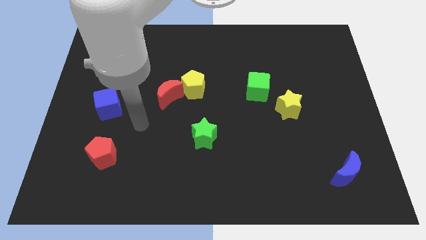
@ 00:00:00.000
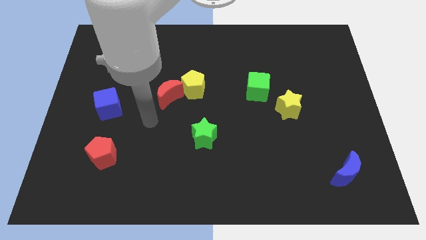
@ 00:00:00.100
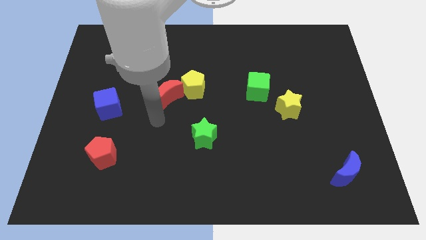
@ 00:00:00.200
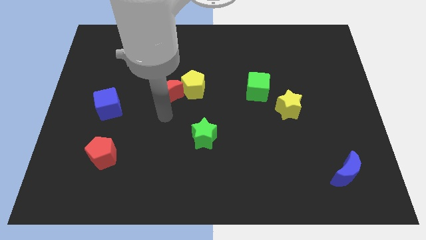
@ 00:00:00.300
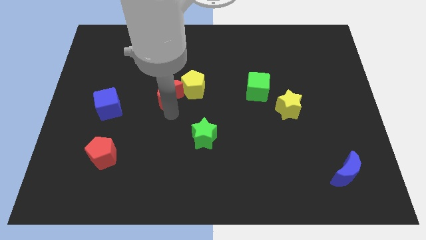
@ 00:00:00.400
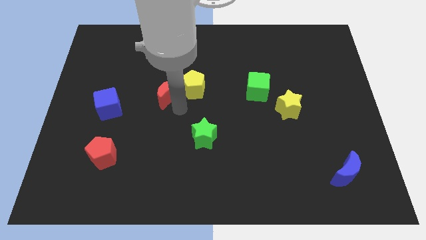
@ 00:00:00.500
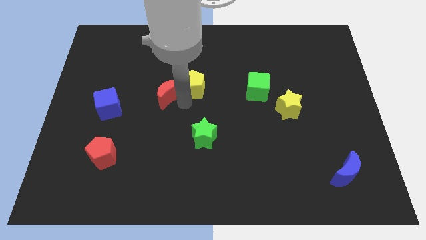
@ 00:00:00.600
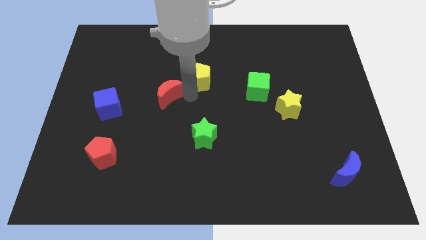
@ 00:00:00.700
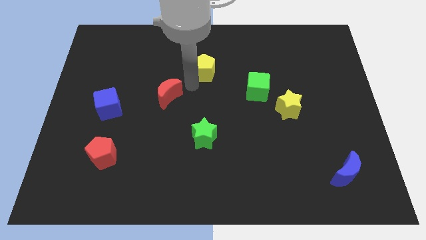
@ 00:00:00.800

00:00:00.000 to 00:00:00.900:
pull the red moon apart from the yellow pentagon

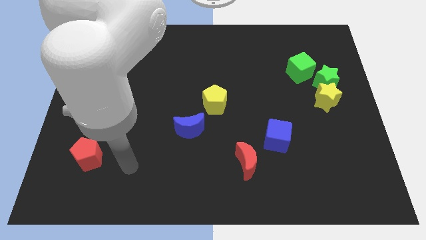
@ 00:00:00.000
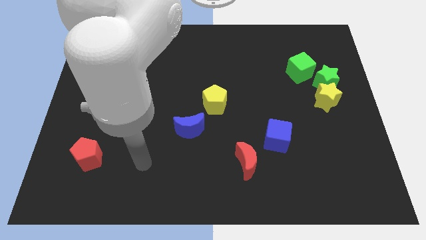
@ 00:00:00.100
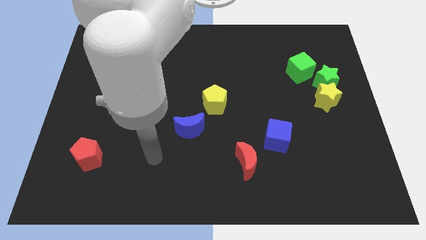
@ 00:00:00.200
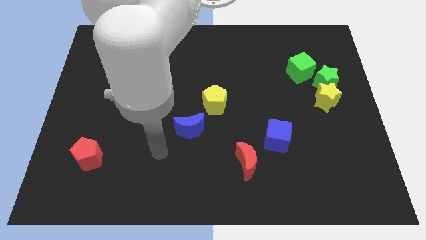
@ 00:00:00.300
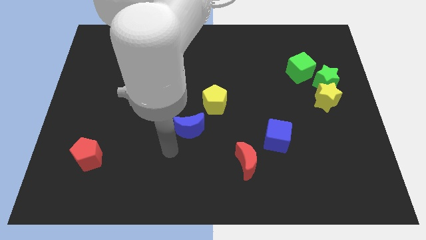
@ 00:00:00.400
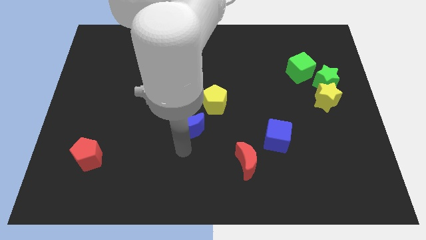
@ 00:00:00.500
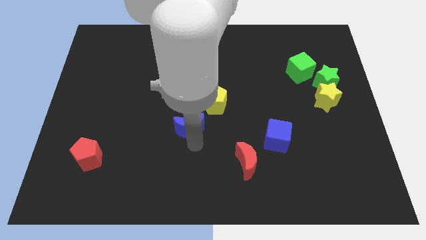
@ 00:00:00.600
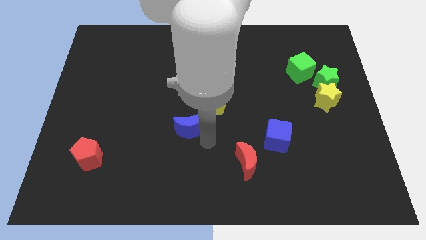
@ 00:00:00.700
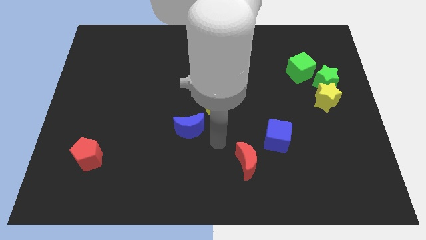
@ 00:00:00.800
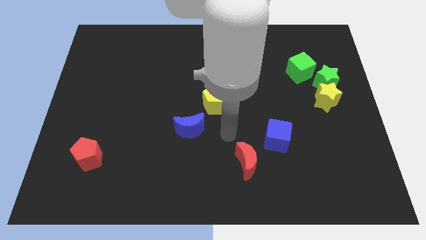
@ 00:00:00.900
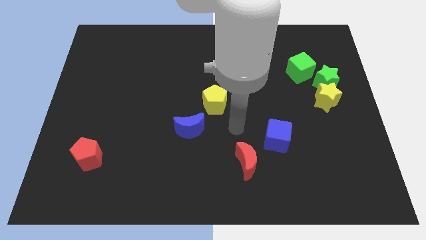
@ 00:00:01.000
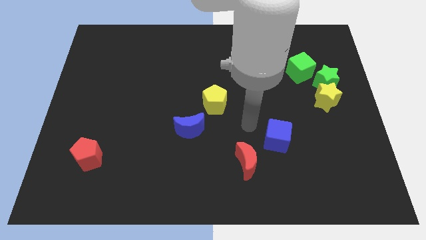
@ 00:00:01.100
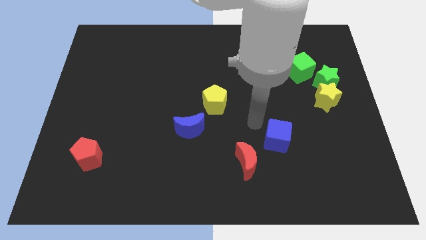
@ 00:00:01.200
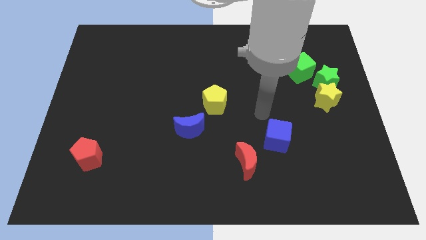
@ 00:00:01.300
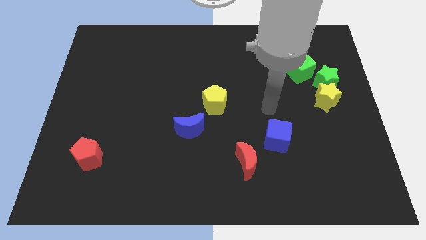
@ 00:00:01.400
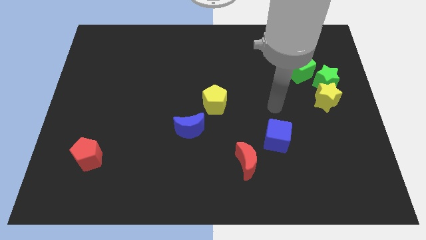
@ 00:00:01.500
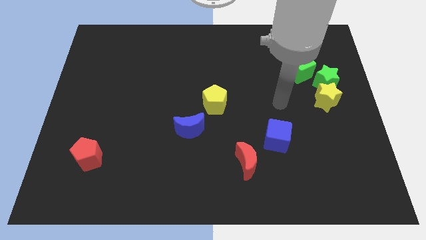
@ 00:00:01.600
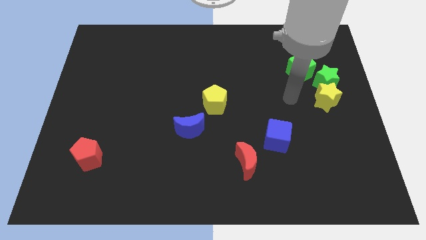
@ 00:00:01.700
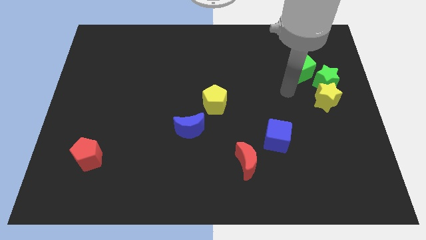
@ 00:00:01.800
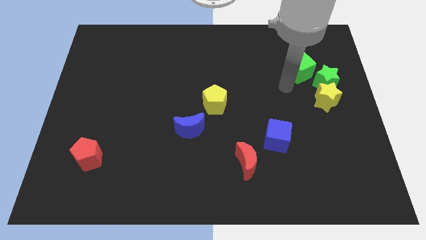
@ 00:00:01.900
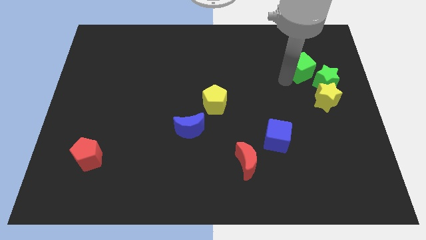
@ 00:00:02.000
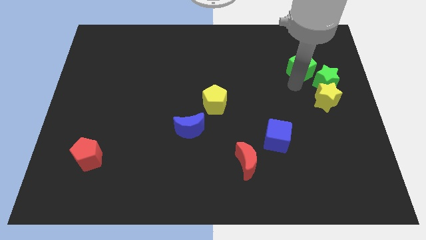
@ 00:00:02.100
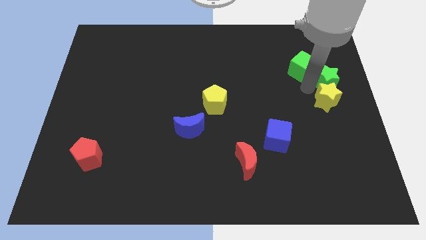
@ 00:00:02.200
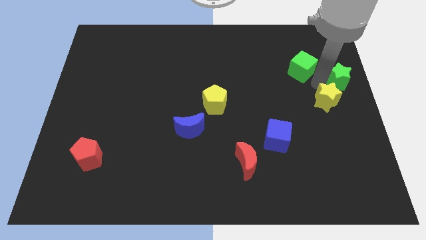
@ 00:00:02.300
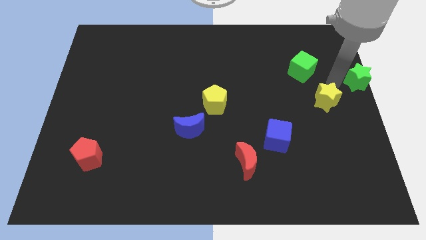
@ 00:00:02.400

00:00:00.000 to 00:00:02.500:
move the yellow star away from the green star

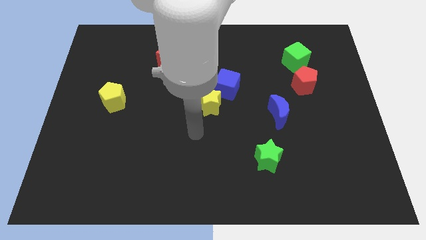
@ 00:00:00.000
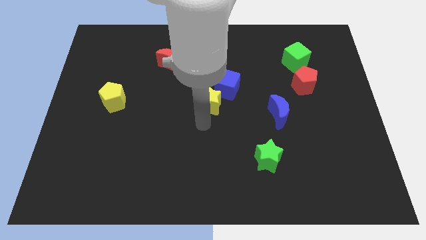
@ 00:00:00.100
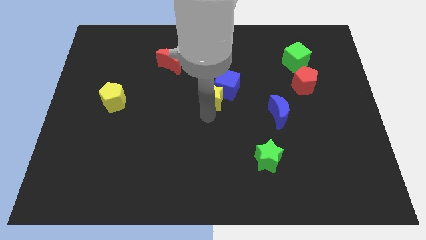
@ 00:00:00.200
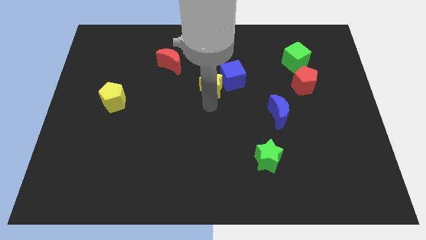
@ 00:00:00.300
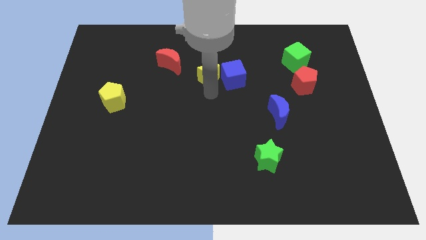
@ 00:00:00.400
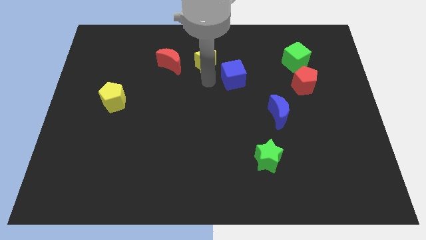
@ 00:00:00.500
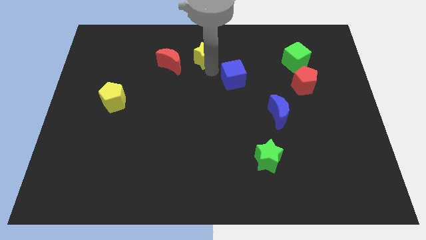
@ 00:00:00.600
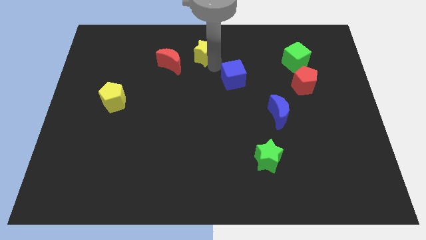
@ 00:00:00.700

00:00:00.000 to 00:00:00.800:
separate the blue cube from the yellow star

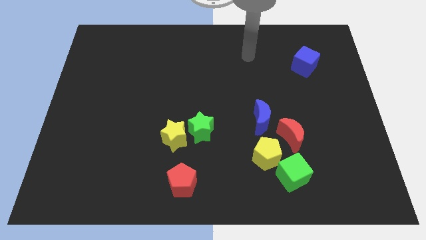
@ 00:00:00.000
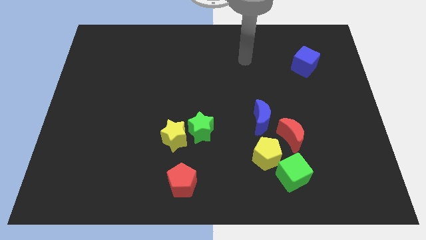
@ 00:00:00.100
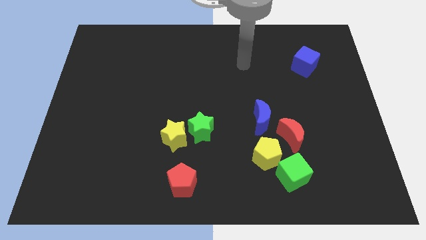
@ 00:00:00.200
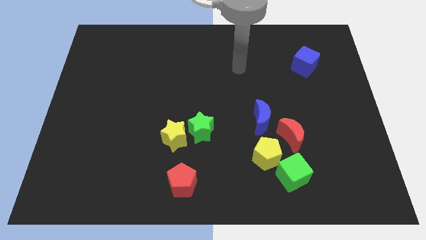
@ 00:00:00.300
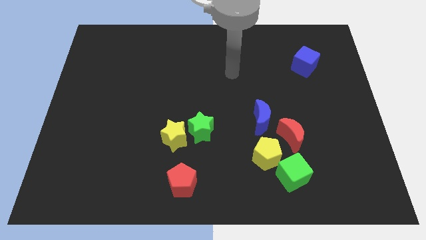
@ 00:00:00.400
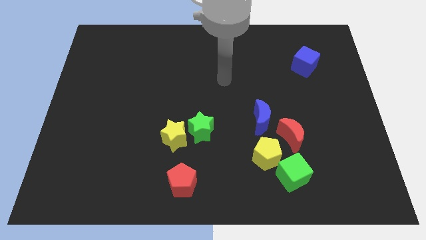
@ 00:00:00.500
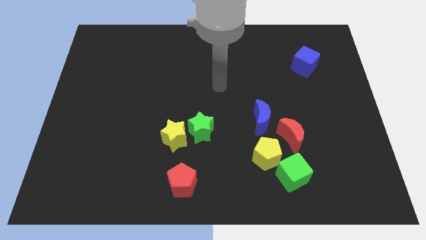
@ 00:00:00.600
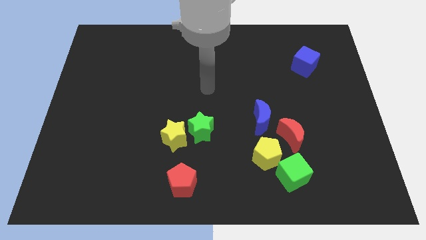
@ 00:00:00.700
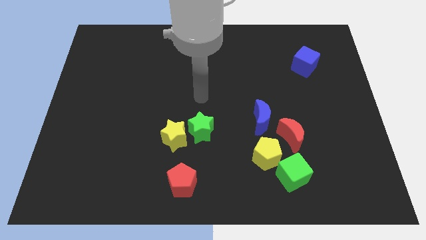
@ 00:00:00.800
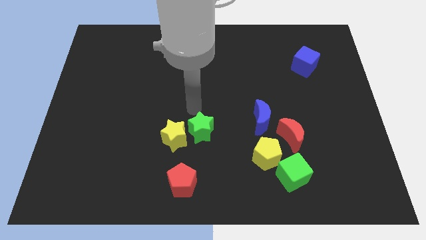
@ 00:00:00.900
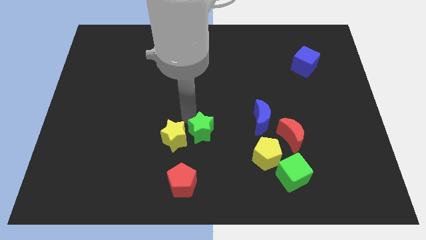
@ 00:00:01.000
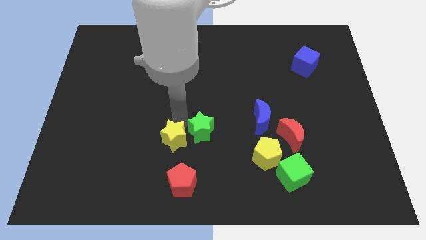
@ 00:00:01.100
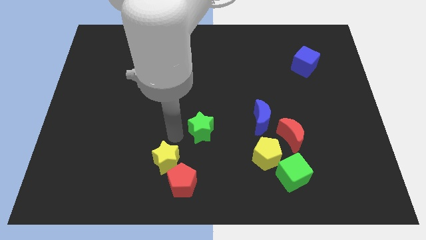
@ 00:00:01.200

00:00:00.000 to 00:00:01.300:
separate the green star from the yellow star

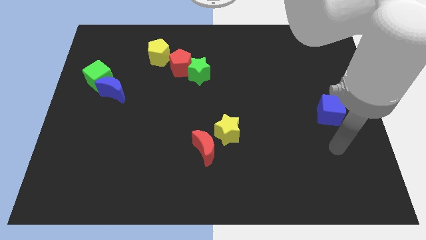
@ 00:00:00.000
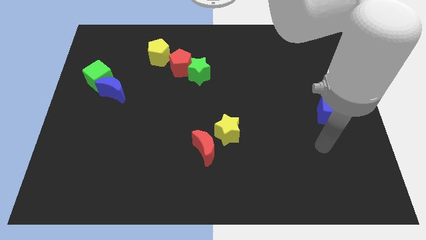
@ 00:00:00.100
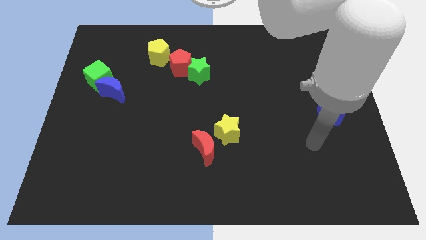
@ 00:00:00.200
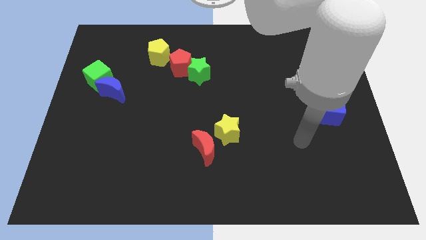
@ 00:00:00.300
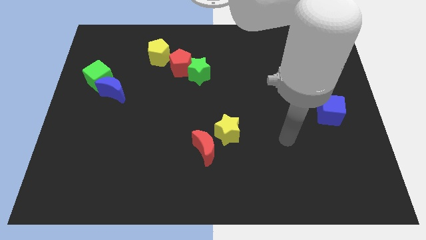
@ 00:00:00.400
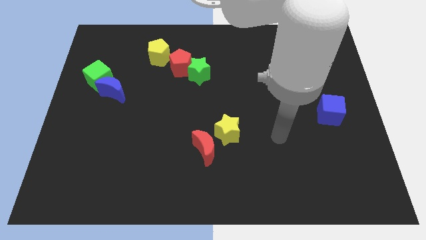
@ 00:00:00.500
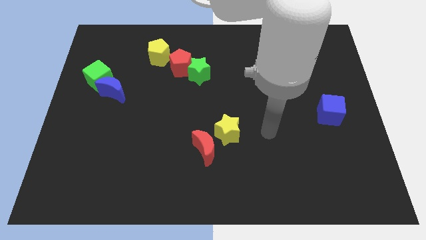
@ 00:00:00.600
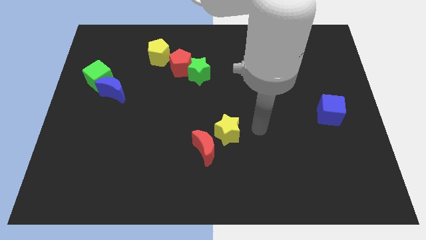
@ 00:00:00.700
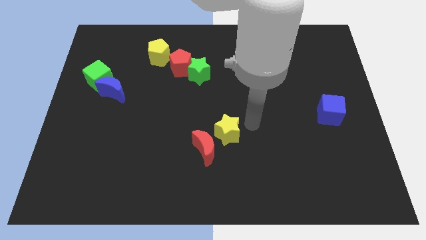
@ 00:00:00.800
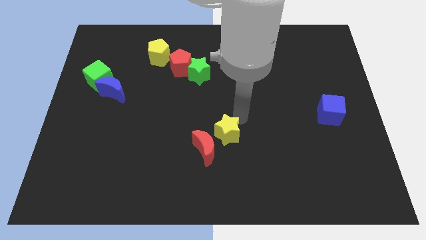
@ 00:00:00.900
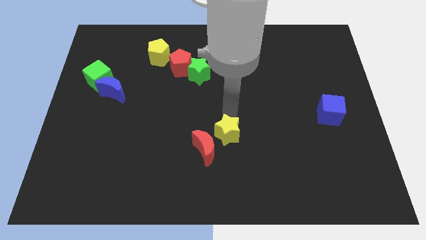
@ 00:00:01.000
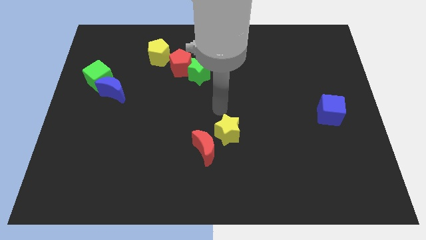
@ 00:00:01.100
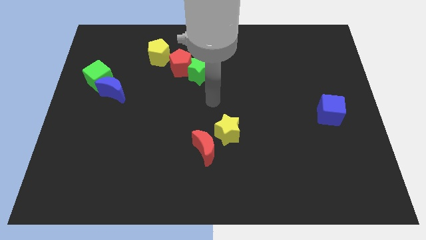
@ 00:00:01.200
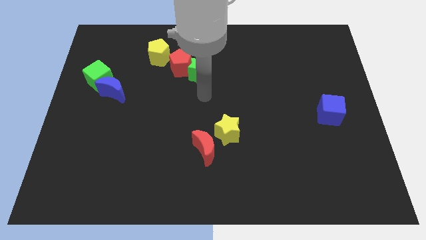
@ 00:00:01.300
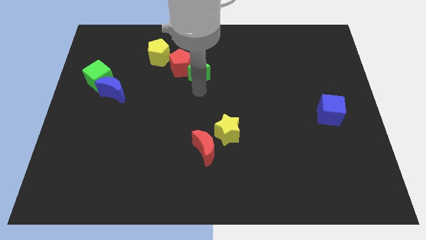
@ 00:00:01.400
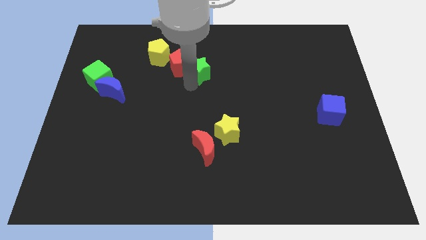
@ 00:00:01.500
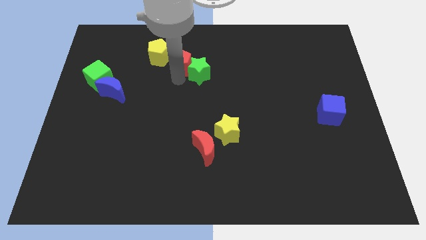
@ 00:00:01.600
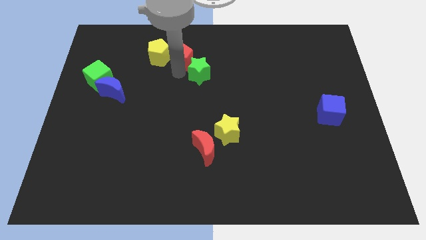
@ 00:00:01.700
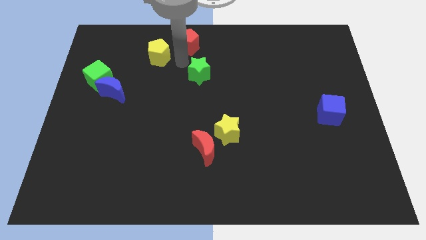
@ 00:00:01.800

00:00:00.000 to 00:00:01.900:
pull the green star apart from the red pentagon

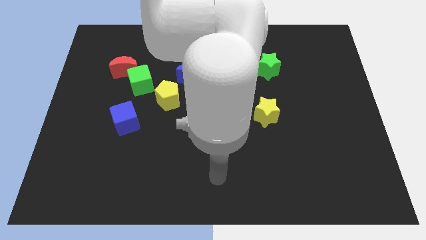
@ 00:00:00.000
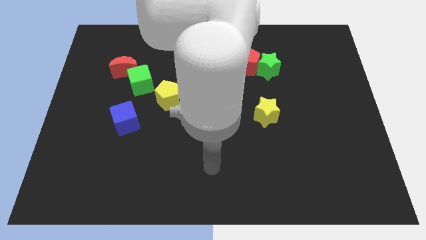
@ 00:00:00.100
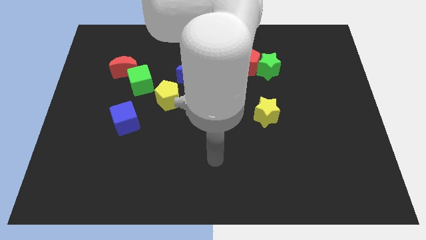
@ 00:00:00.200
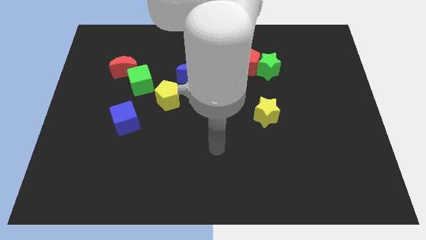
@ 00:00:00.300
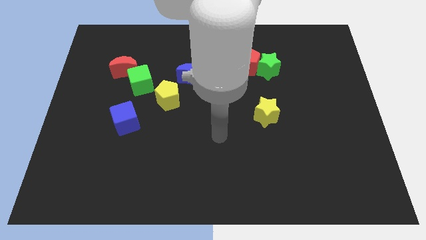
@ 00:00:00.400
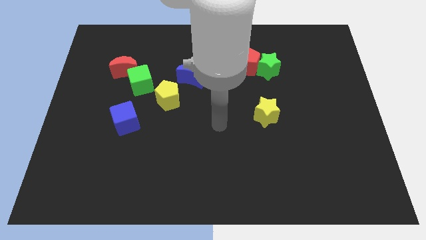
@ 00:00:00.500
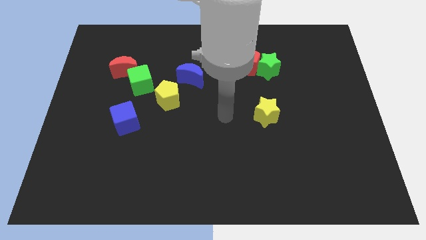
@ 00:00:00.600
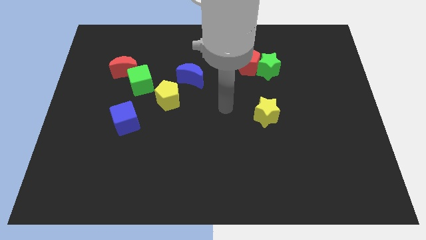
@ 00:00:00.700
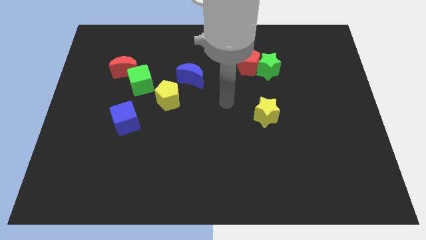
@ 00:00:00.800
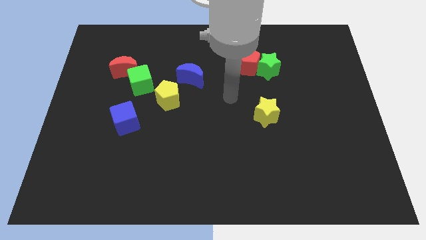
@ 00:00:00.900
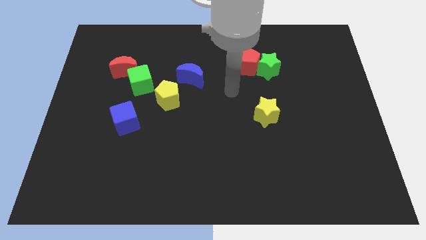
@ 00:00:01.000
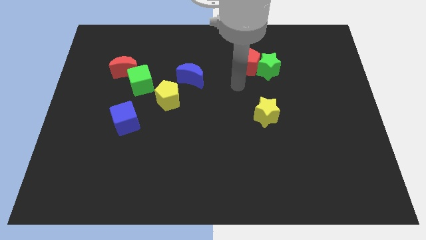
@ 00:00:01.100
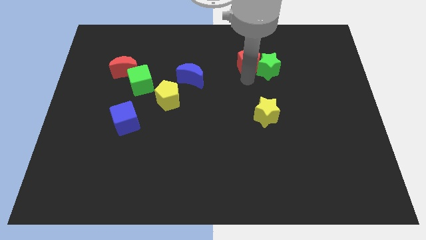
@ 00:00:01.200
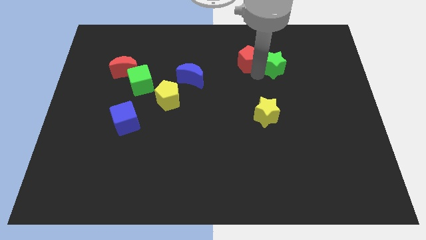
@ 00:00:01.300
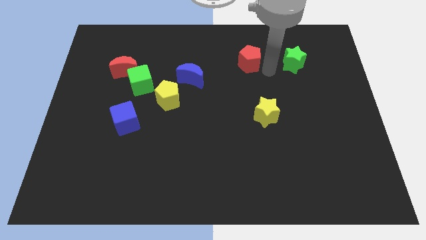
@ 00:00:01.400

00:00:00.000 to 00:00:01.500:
pull the red pentagon apart from the green star

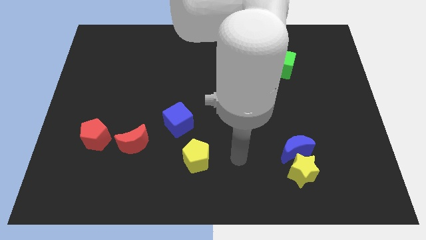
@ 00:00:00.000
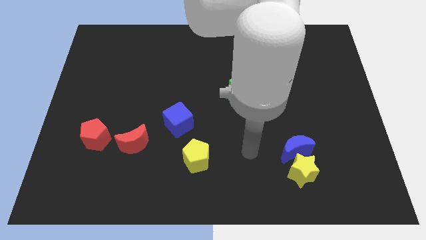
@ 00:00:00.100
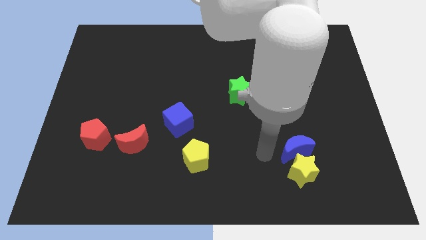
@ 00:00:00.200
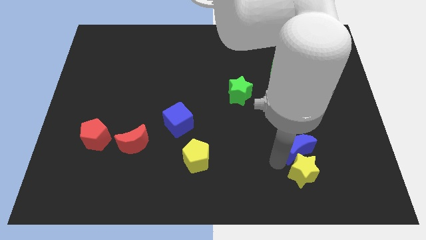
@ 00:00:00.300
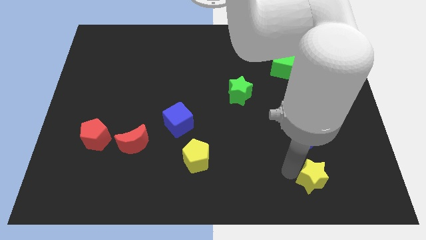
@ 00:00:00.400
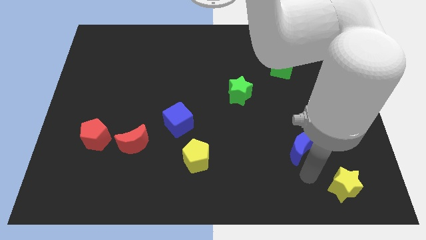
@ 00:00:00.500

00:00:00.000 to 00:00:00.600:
pull the blue moon apart from the yellow star
